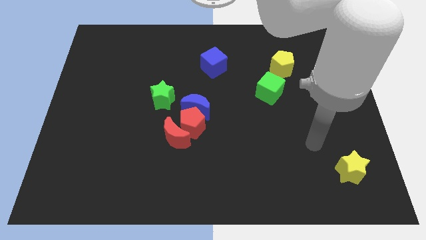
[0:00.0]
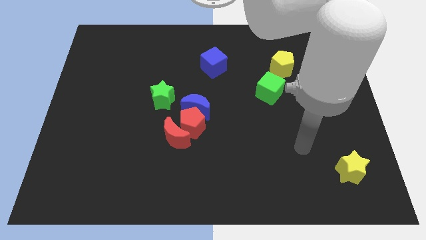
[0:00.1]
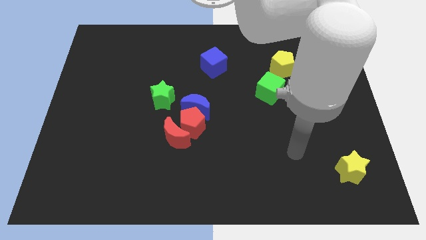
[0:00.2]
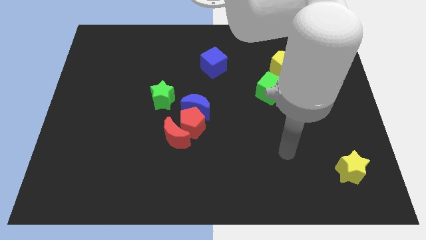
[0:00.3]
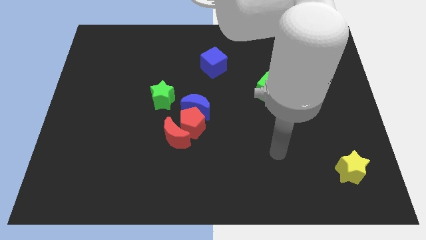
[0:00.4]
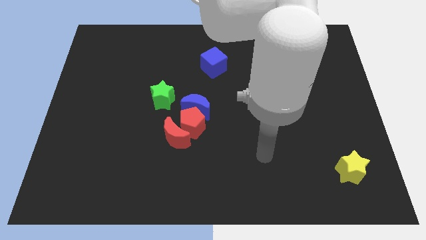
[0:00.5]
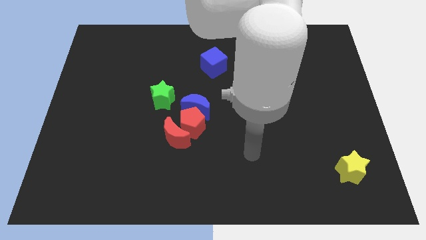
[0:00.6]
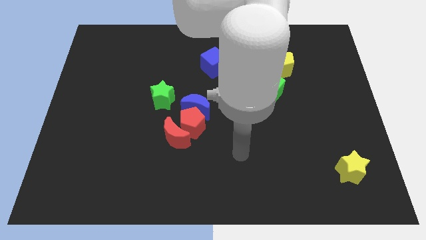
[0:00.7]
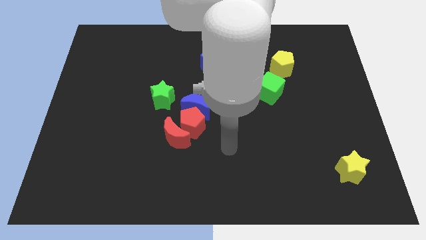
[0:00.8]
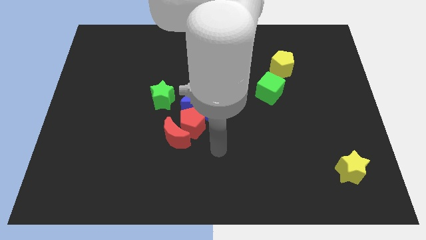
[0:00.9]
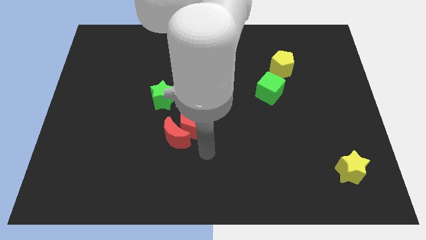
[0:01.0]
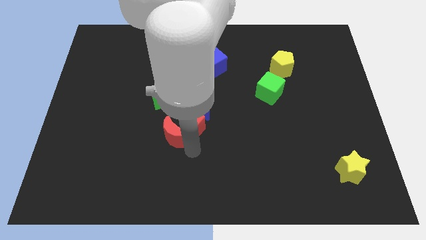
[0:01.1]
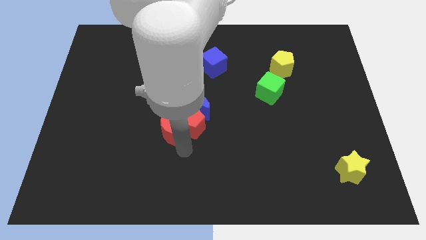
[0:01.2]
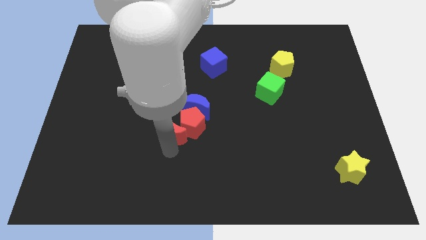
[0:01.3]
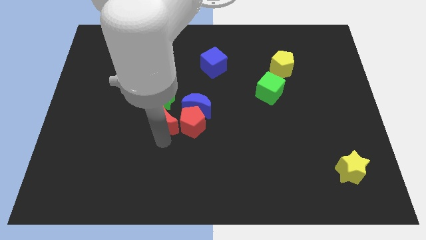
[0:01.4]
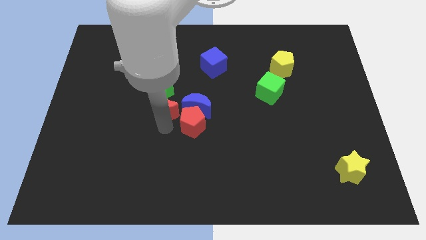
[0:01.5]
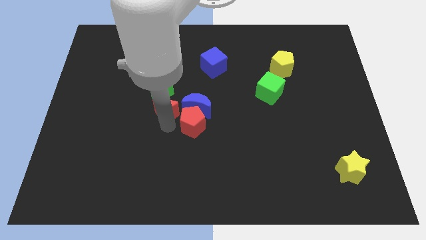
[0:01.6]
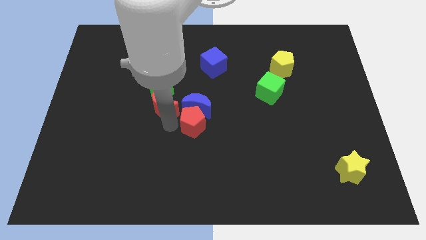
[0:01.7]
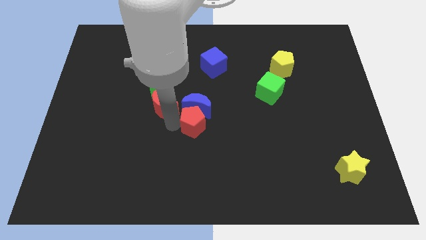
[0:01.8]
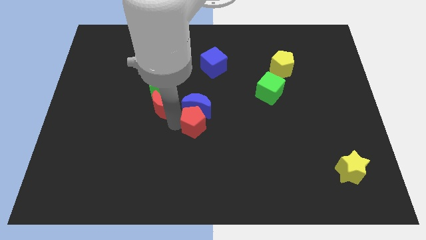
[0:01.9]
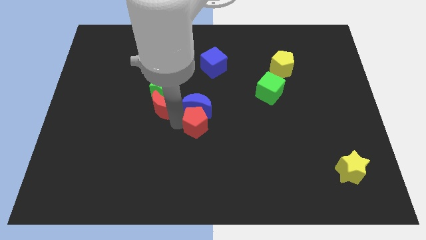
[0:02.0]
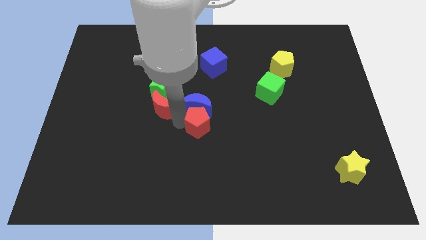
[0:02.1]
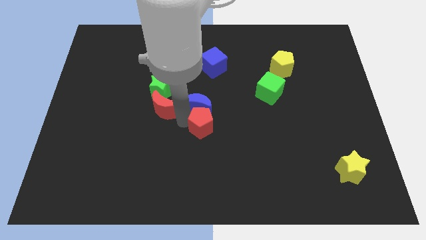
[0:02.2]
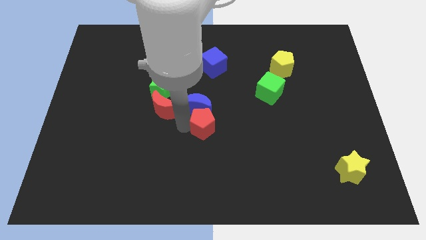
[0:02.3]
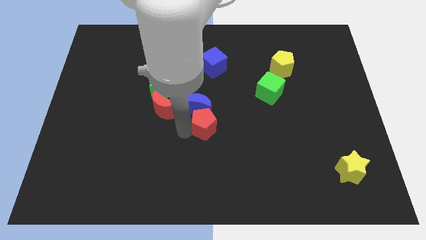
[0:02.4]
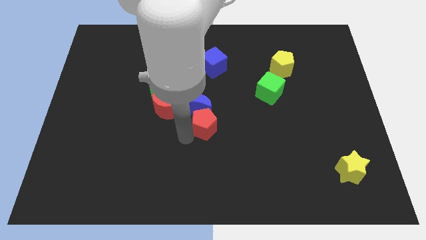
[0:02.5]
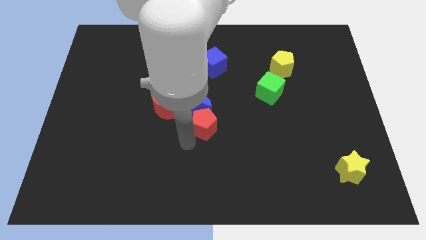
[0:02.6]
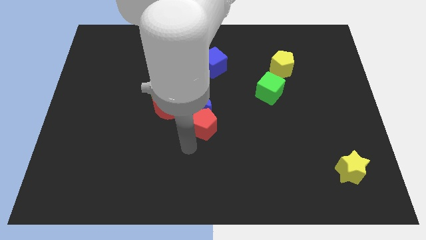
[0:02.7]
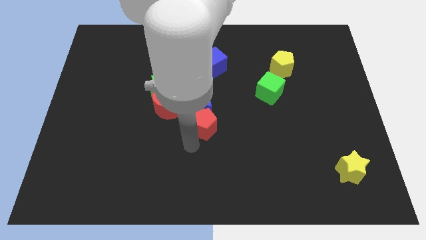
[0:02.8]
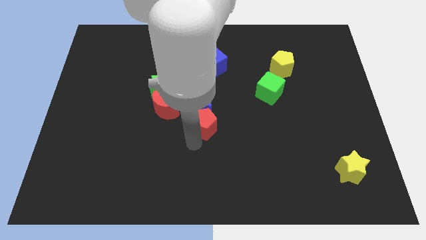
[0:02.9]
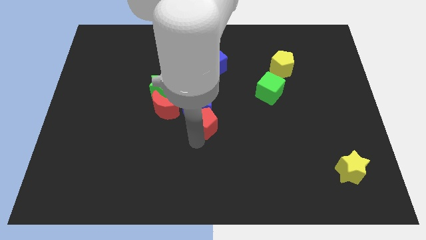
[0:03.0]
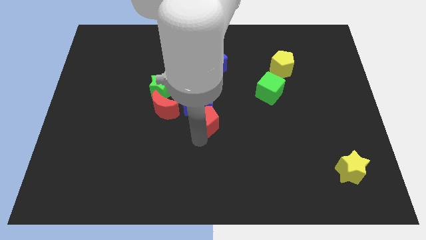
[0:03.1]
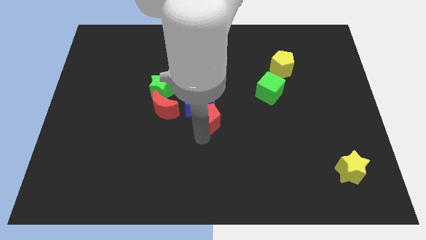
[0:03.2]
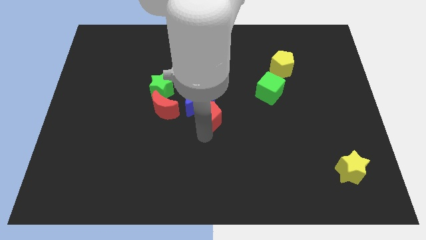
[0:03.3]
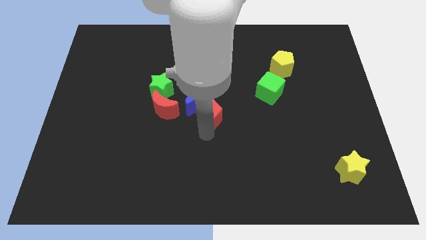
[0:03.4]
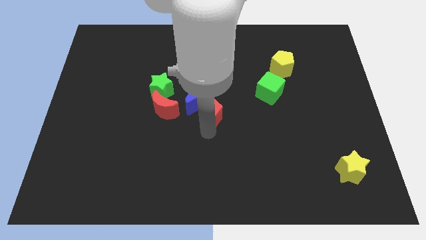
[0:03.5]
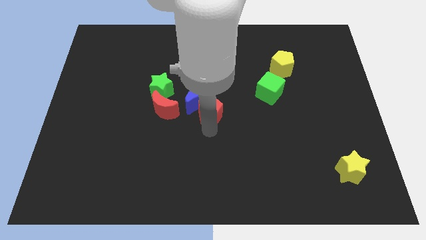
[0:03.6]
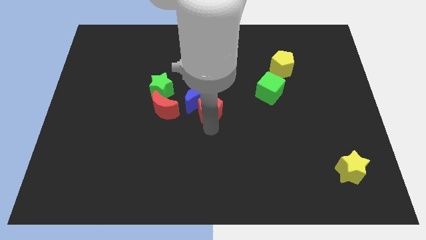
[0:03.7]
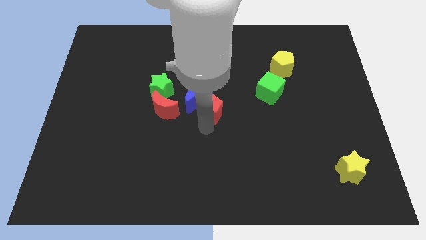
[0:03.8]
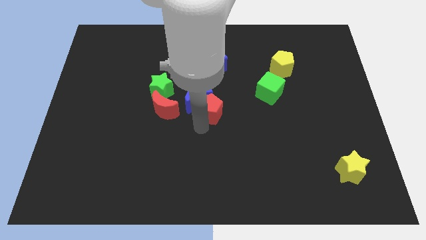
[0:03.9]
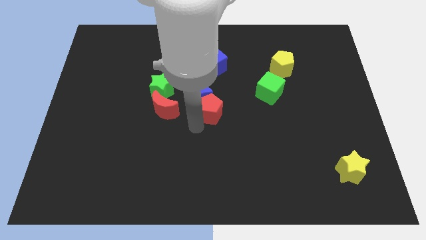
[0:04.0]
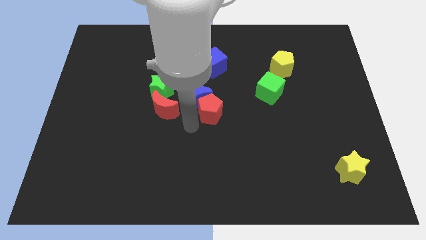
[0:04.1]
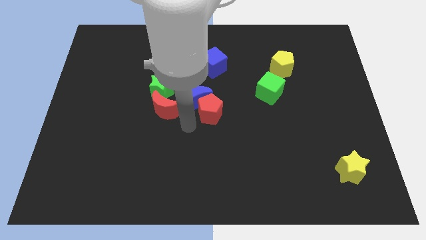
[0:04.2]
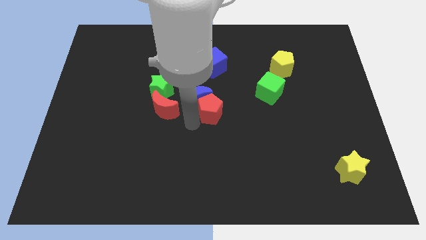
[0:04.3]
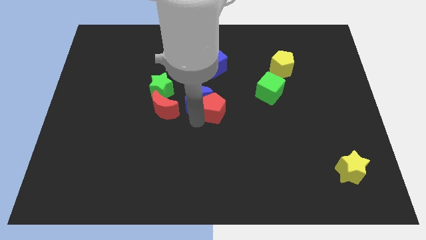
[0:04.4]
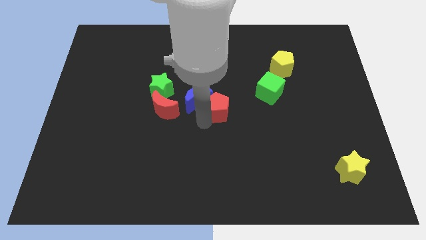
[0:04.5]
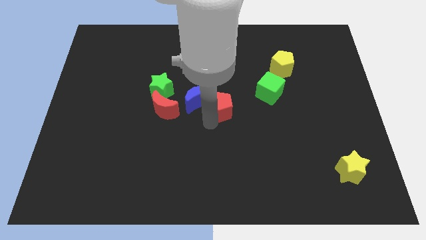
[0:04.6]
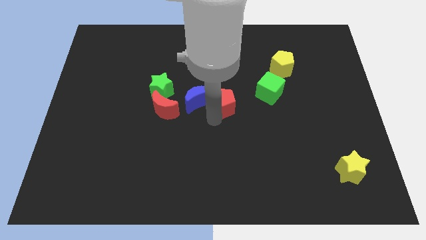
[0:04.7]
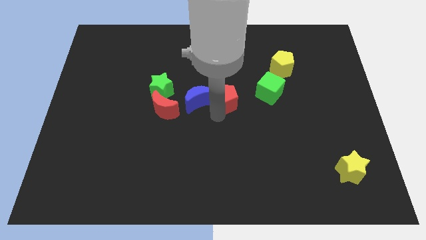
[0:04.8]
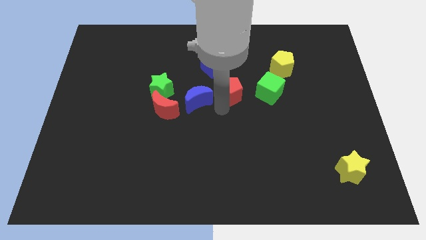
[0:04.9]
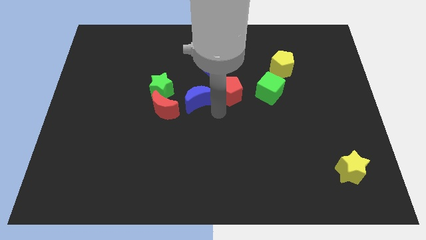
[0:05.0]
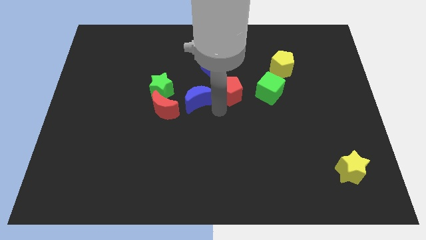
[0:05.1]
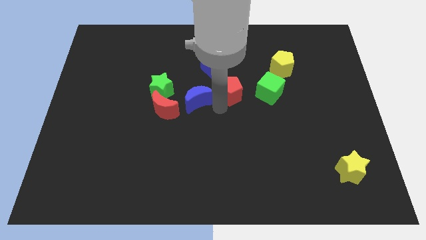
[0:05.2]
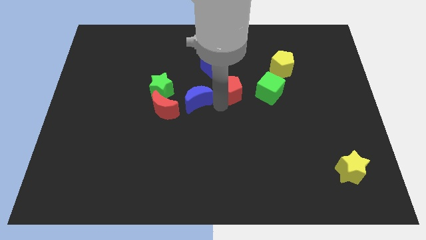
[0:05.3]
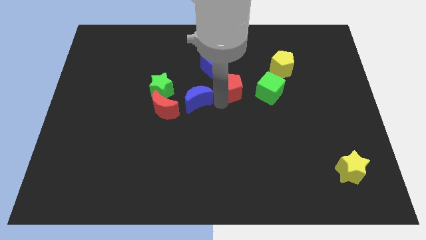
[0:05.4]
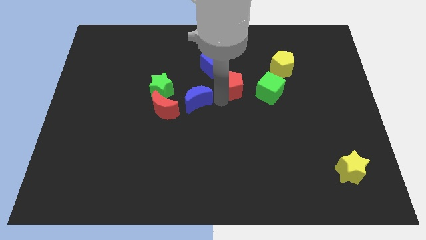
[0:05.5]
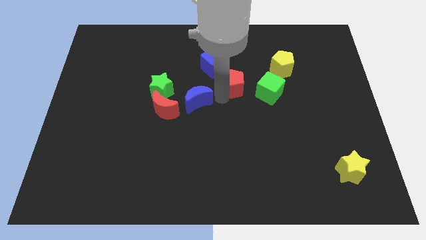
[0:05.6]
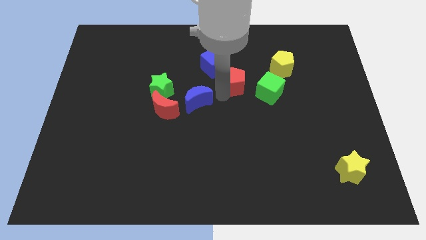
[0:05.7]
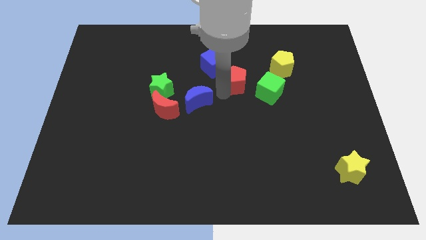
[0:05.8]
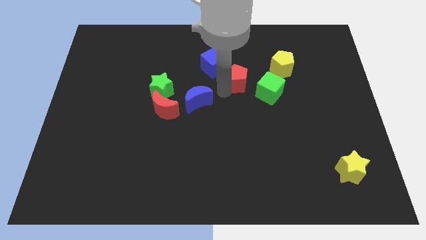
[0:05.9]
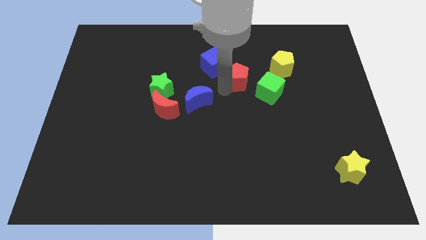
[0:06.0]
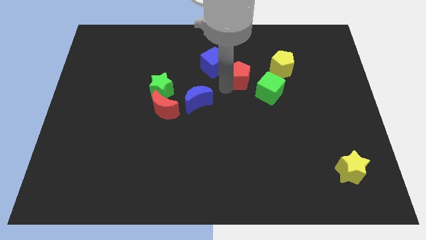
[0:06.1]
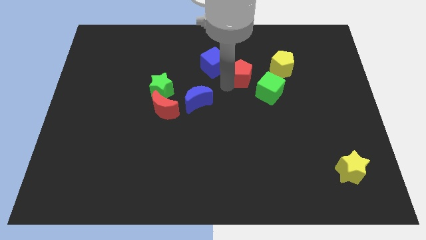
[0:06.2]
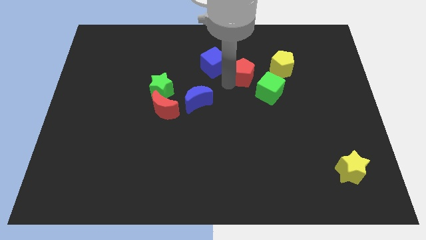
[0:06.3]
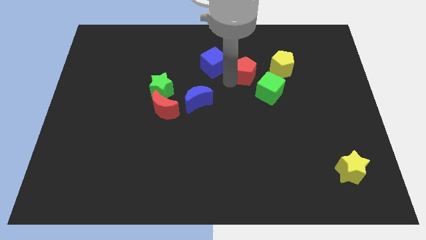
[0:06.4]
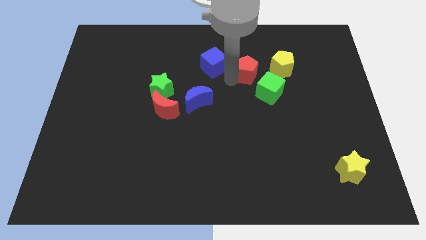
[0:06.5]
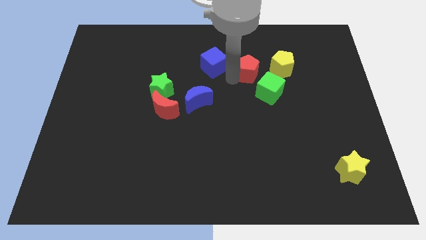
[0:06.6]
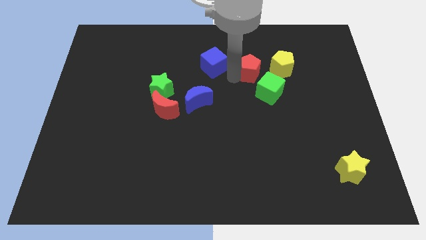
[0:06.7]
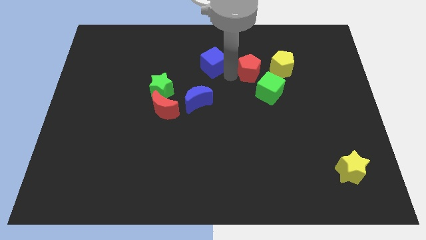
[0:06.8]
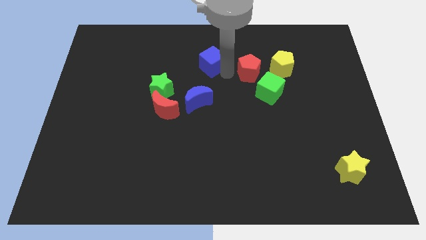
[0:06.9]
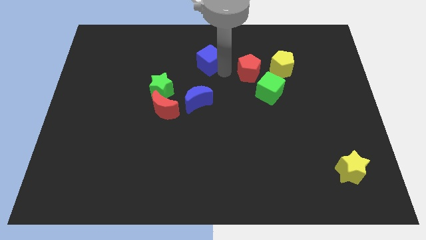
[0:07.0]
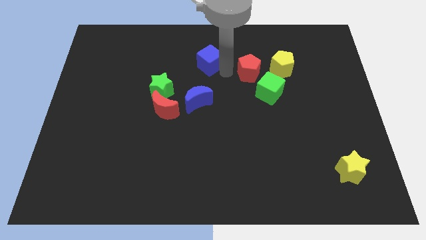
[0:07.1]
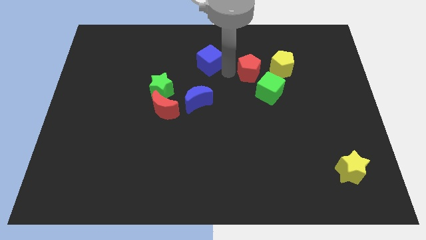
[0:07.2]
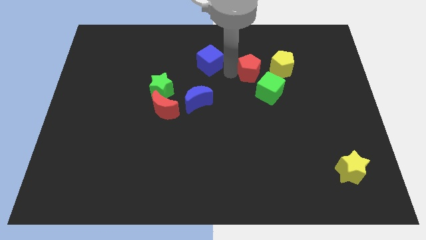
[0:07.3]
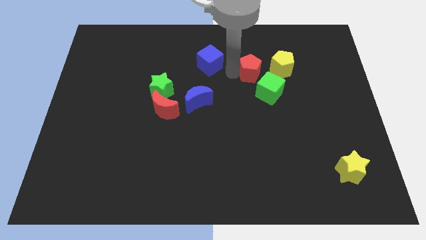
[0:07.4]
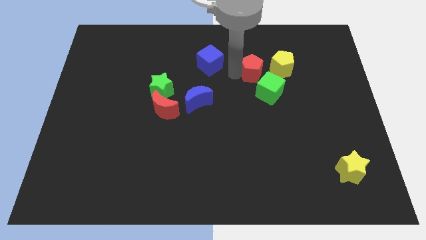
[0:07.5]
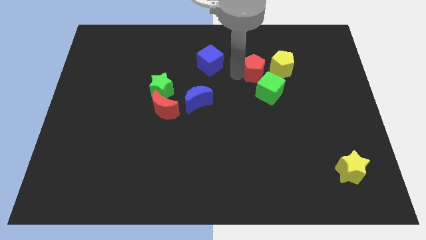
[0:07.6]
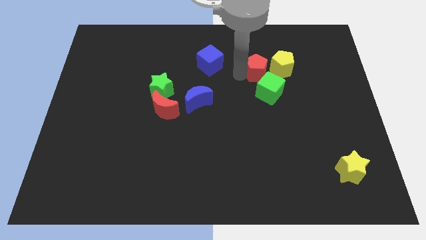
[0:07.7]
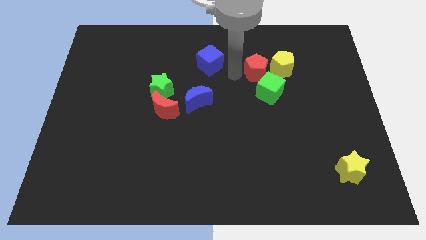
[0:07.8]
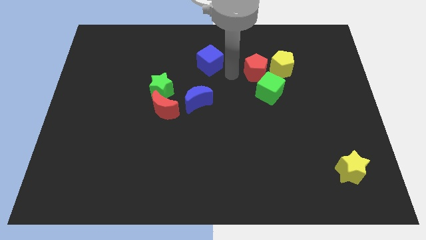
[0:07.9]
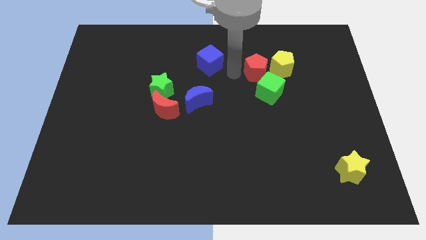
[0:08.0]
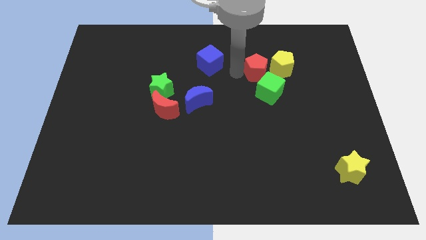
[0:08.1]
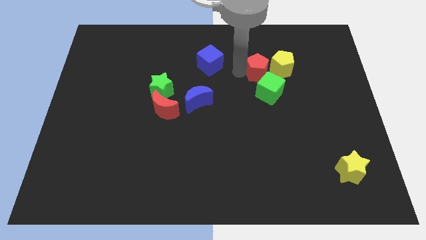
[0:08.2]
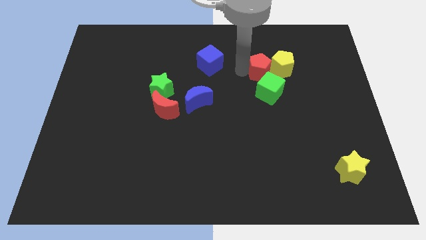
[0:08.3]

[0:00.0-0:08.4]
put the red pentagon close to the yellow pentagon
